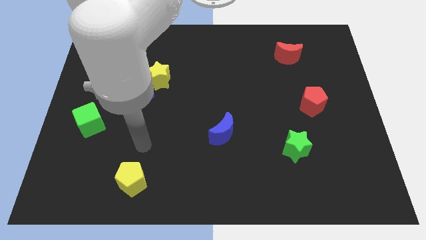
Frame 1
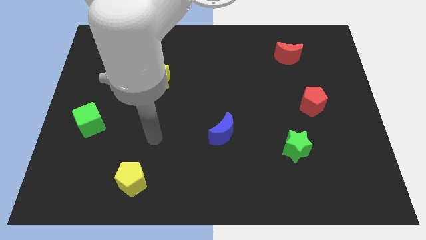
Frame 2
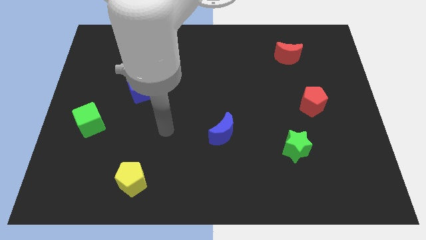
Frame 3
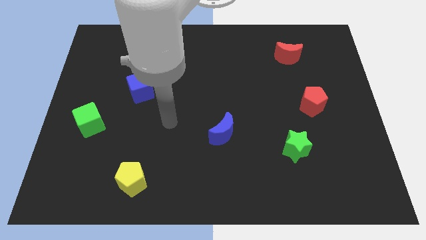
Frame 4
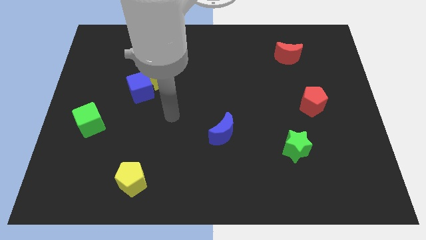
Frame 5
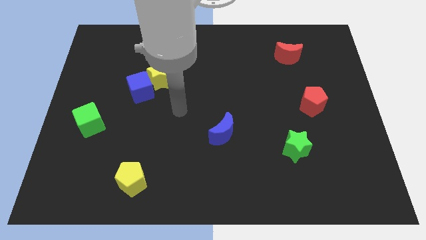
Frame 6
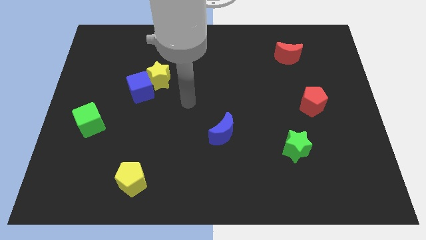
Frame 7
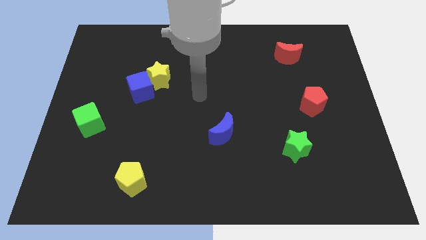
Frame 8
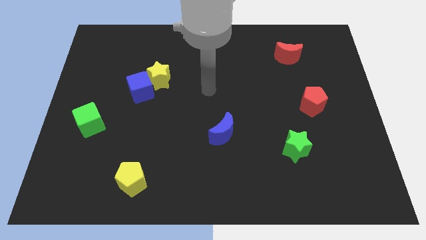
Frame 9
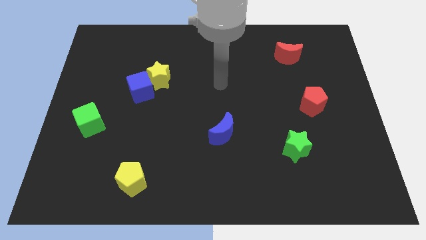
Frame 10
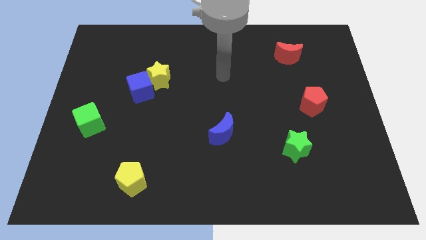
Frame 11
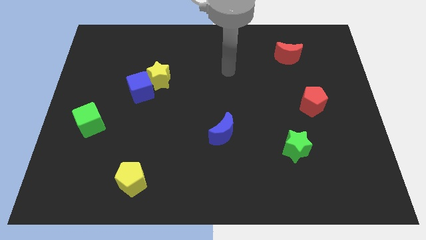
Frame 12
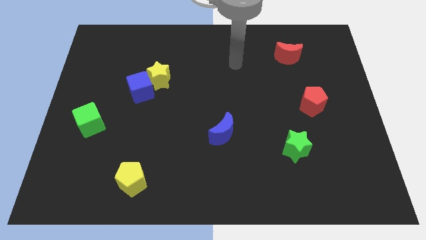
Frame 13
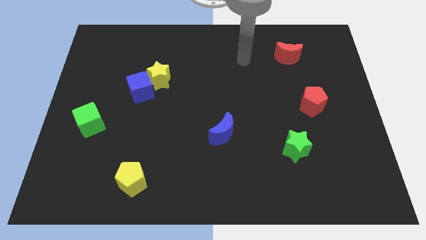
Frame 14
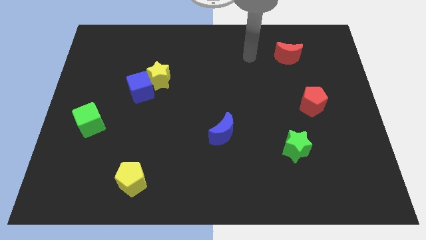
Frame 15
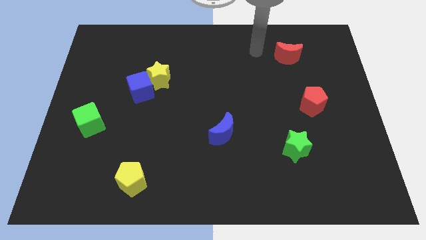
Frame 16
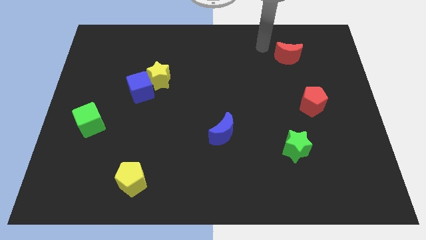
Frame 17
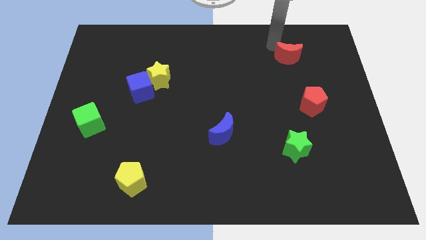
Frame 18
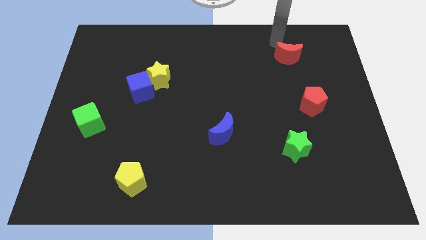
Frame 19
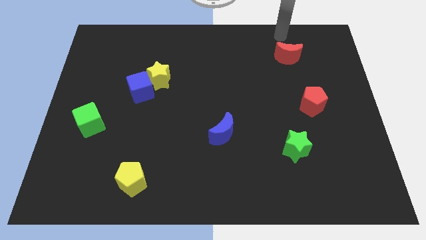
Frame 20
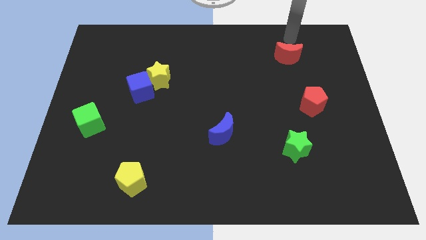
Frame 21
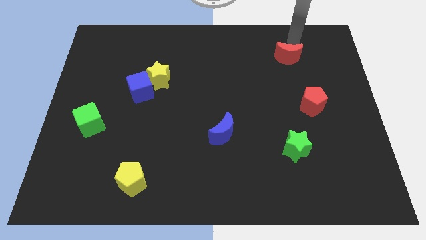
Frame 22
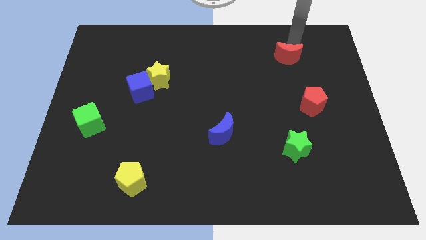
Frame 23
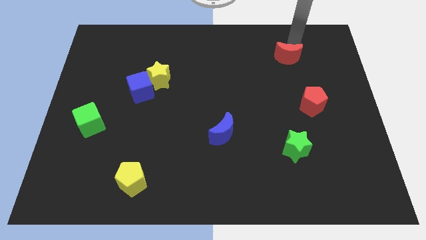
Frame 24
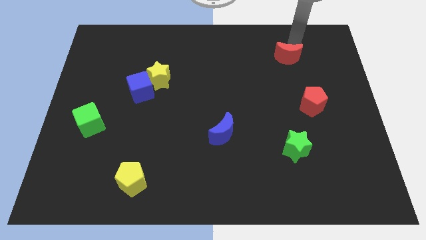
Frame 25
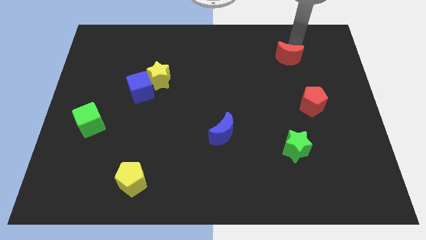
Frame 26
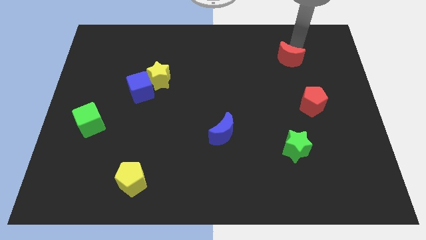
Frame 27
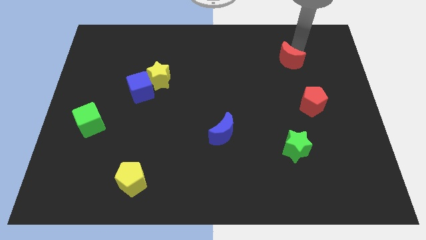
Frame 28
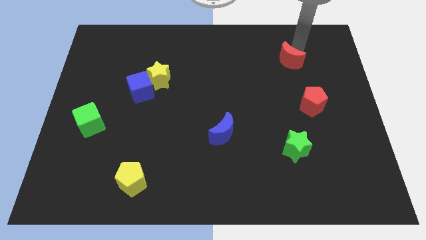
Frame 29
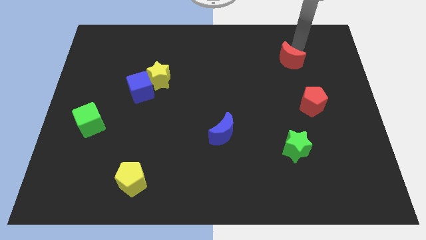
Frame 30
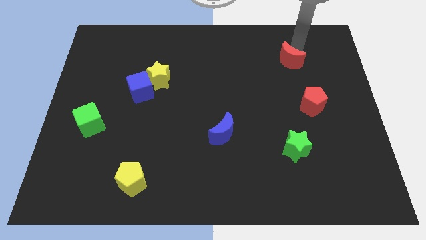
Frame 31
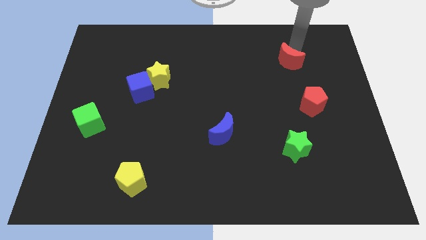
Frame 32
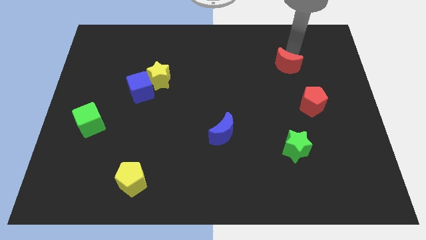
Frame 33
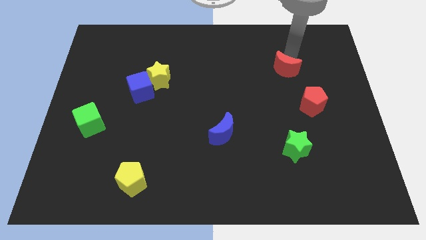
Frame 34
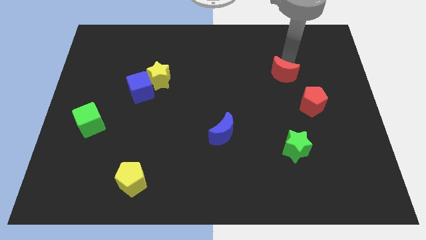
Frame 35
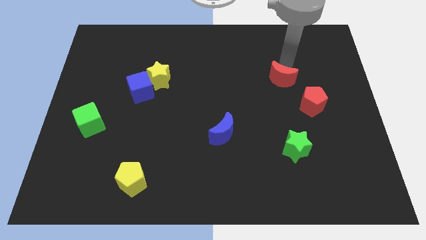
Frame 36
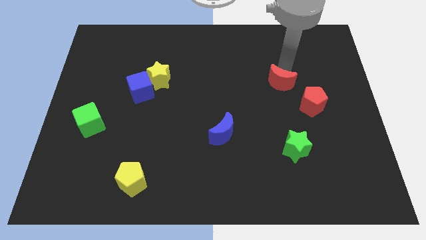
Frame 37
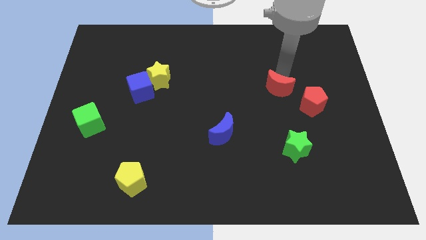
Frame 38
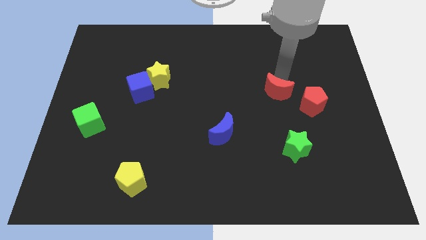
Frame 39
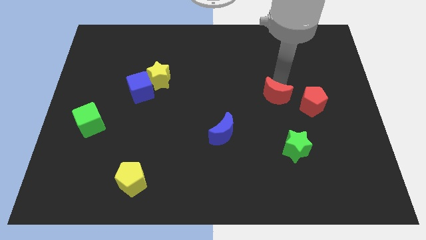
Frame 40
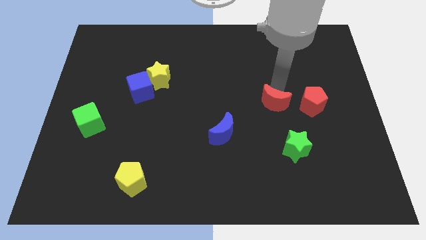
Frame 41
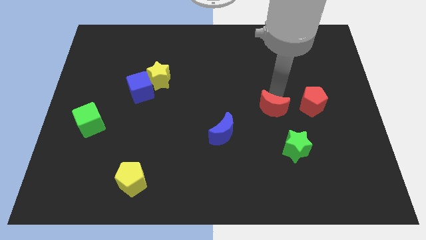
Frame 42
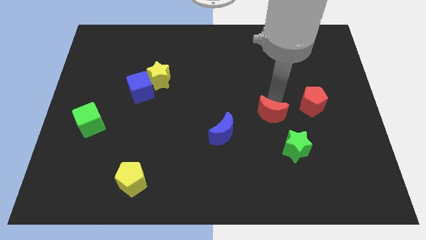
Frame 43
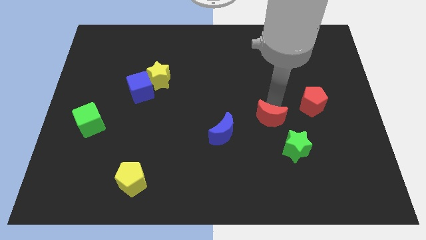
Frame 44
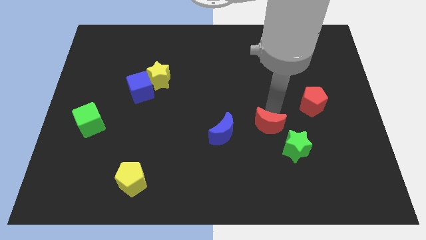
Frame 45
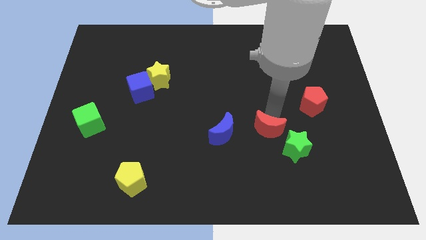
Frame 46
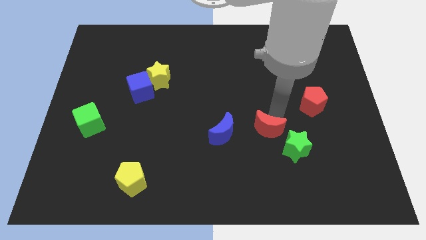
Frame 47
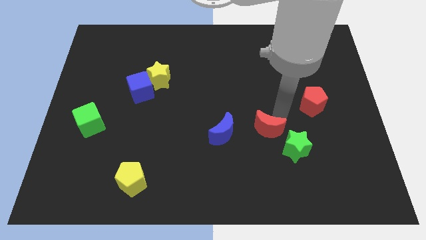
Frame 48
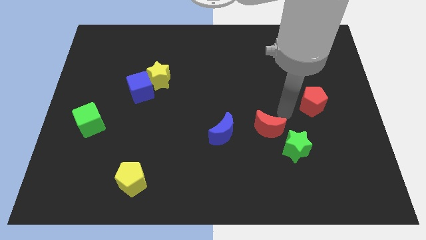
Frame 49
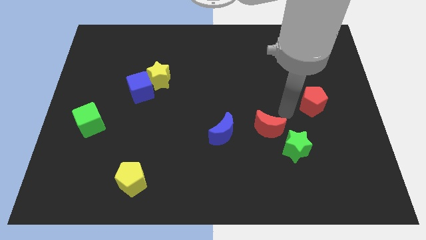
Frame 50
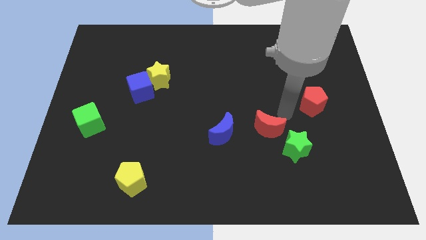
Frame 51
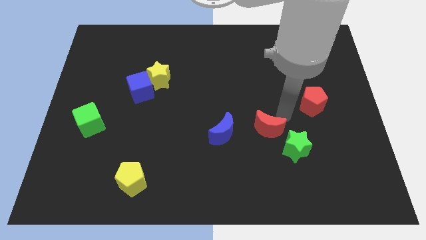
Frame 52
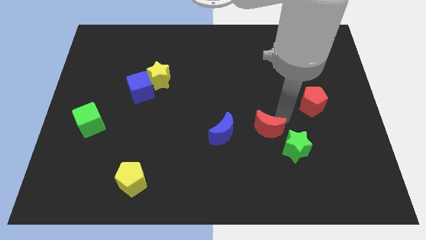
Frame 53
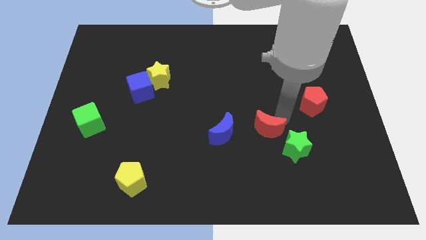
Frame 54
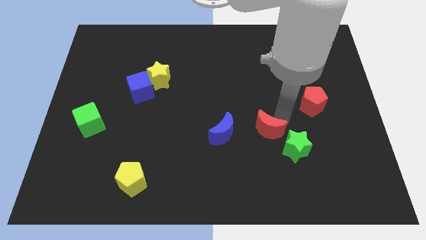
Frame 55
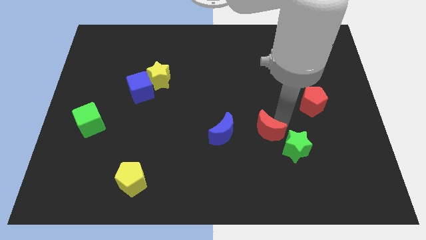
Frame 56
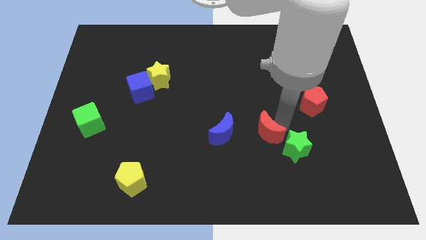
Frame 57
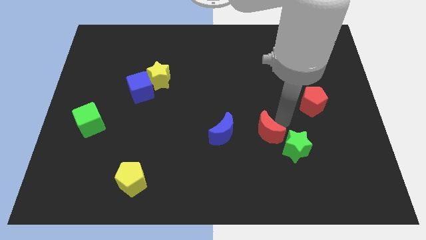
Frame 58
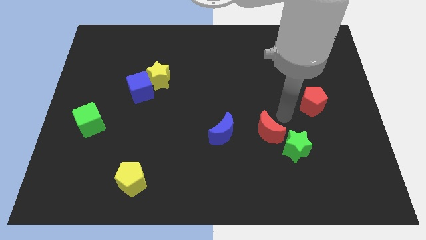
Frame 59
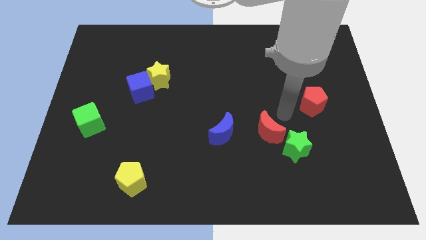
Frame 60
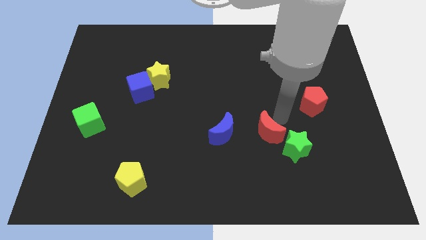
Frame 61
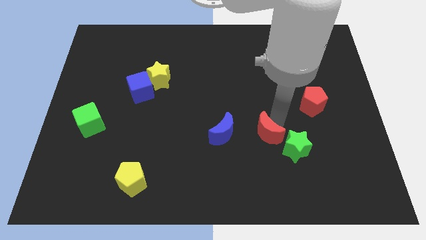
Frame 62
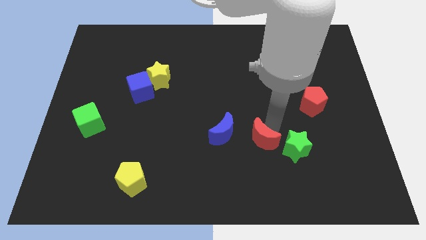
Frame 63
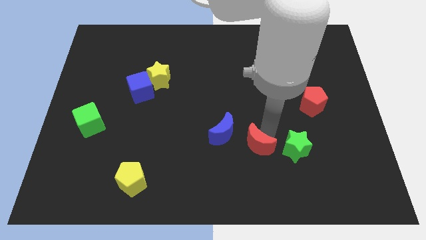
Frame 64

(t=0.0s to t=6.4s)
push the red moon to the bottom right of the blue moon
